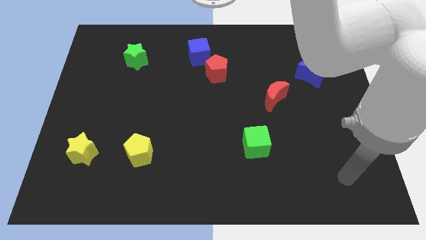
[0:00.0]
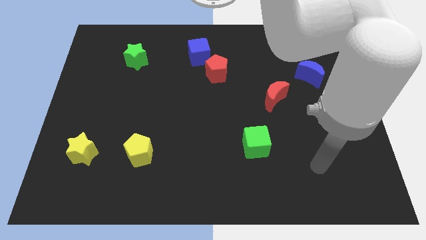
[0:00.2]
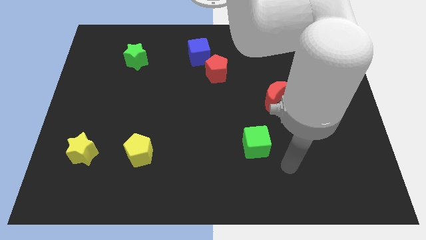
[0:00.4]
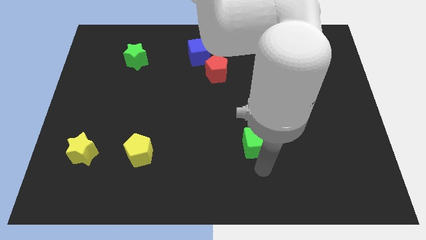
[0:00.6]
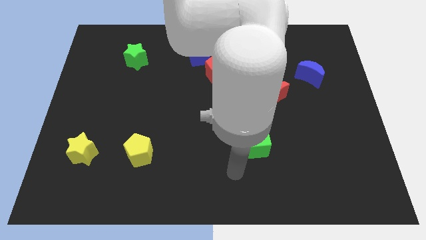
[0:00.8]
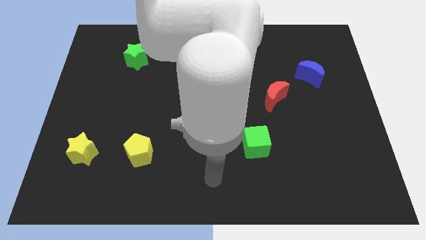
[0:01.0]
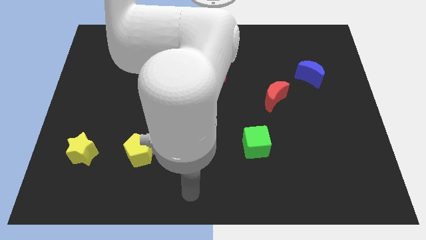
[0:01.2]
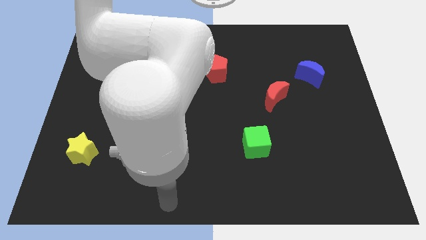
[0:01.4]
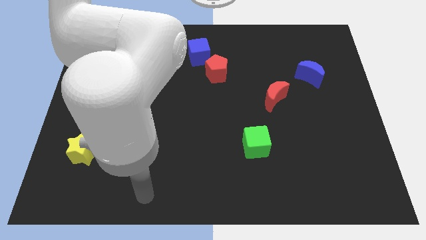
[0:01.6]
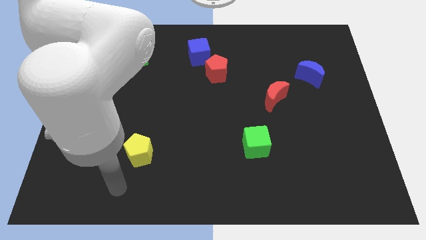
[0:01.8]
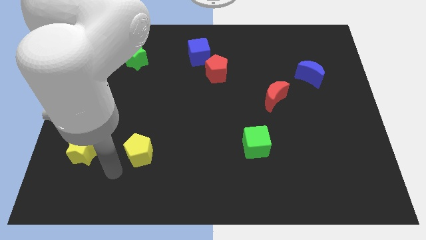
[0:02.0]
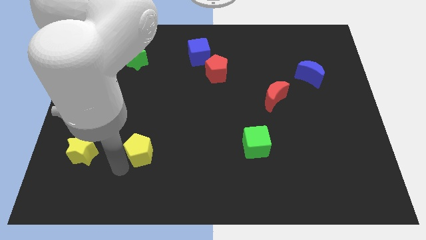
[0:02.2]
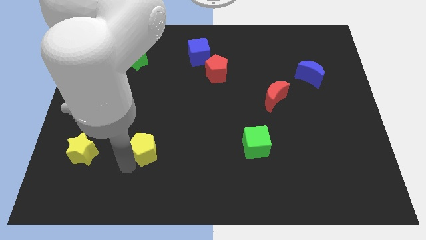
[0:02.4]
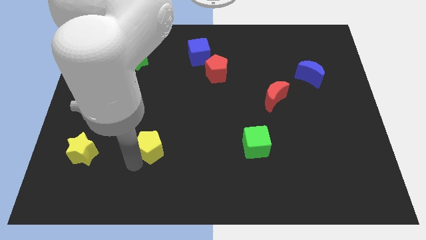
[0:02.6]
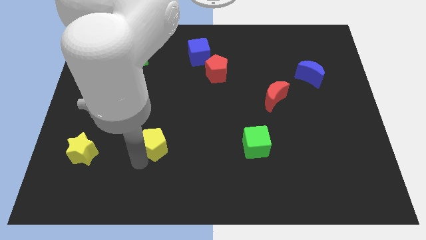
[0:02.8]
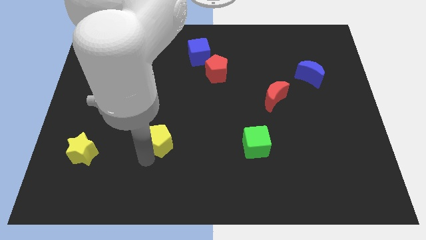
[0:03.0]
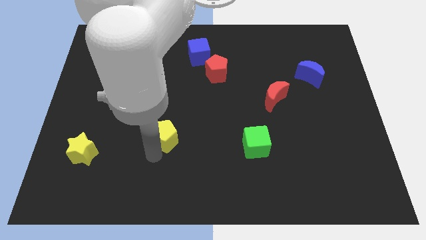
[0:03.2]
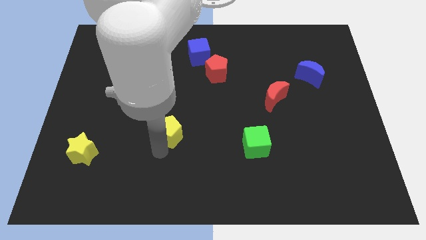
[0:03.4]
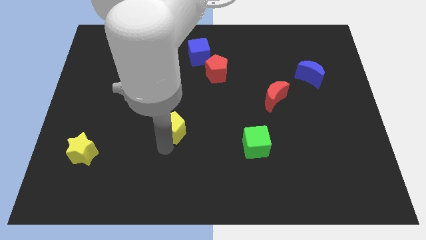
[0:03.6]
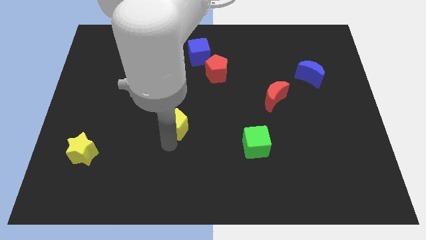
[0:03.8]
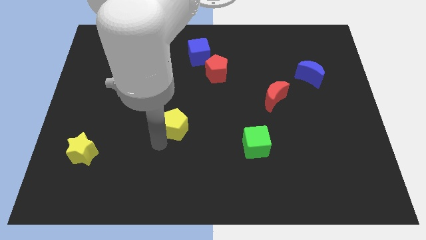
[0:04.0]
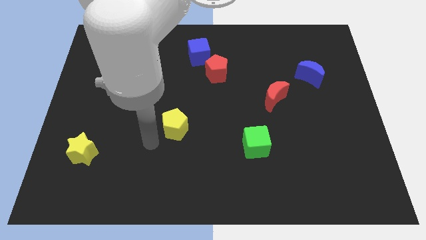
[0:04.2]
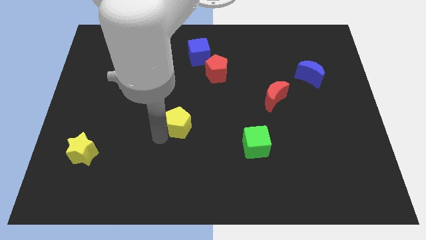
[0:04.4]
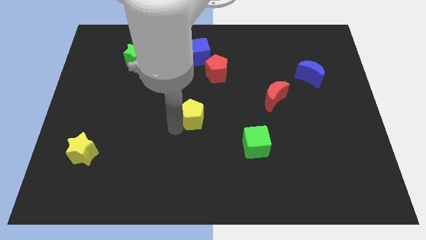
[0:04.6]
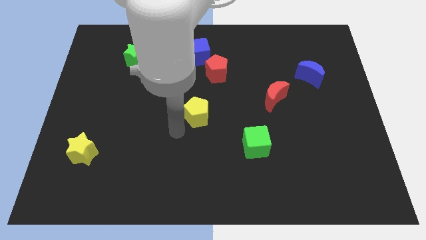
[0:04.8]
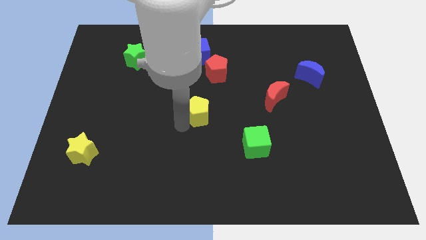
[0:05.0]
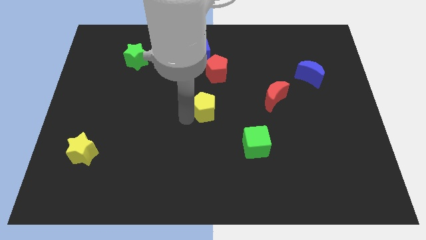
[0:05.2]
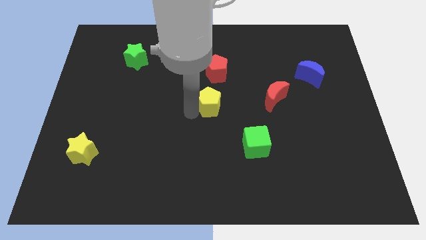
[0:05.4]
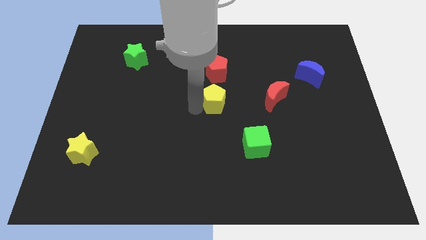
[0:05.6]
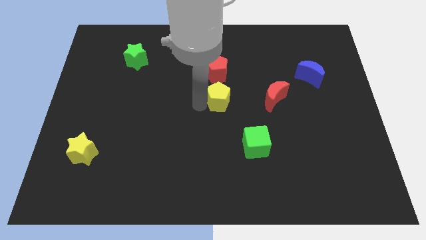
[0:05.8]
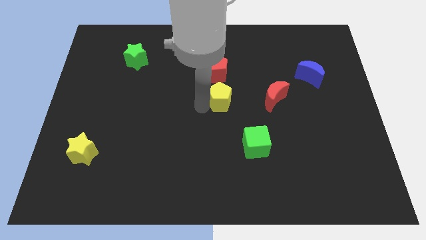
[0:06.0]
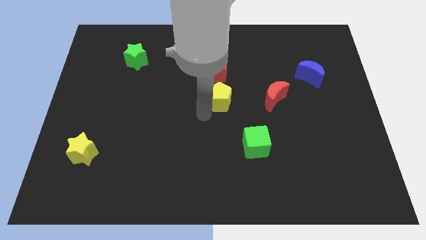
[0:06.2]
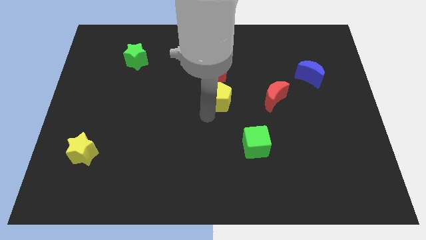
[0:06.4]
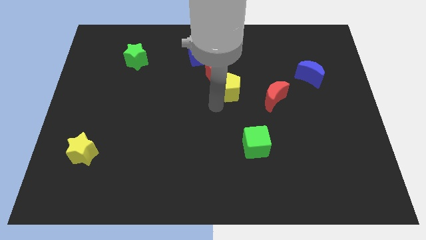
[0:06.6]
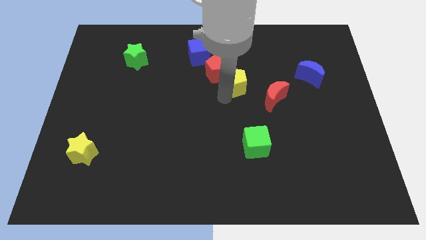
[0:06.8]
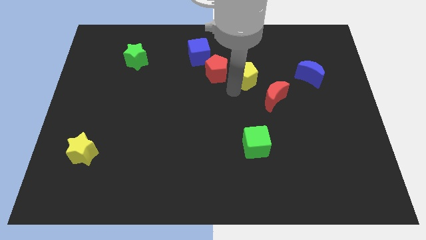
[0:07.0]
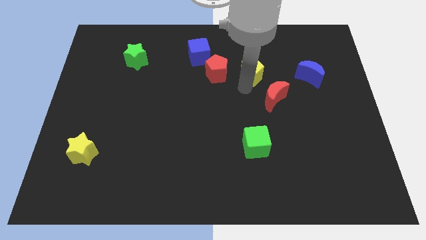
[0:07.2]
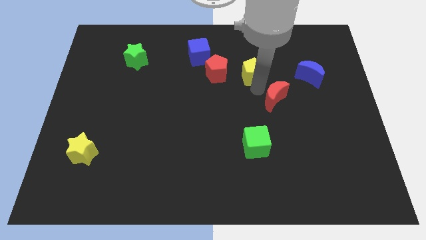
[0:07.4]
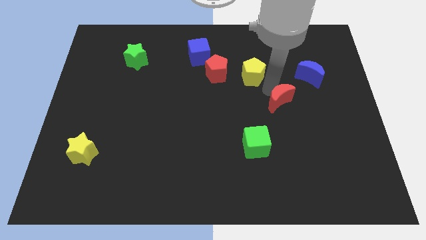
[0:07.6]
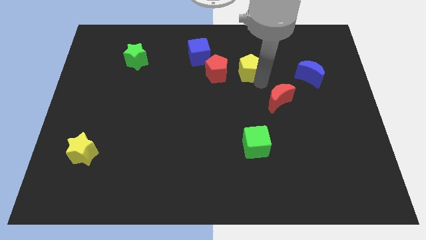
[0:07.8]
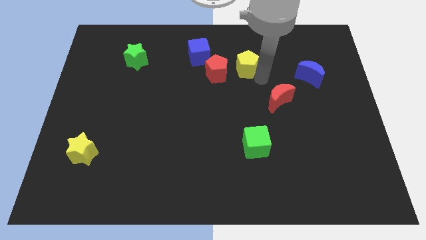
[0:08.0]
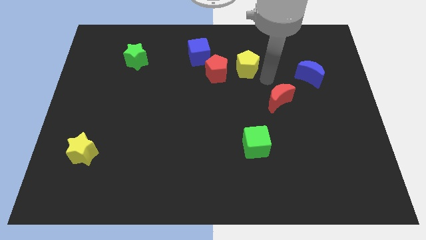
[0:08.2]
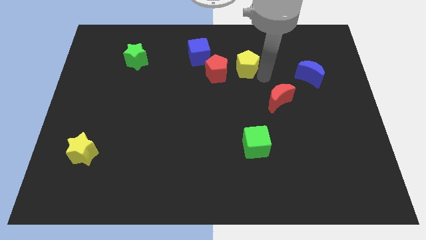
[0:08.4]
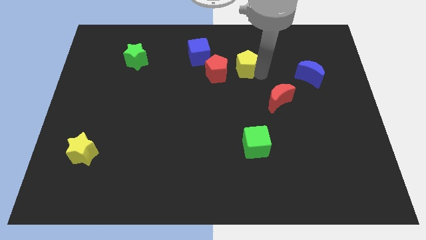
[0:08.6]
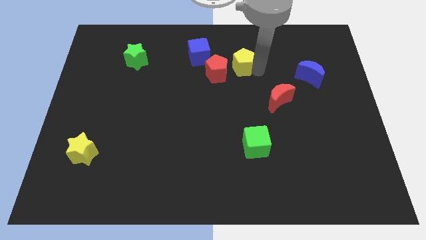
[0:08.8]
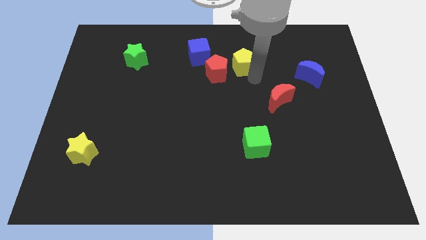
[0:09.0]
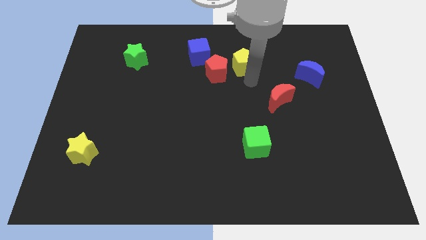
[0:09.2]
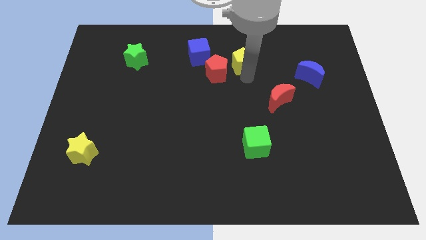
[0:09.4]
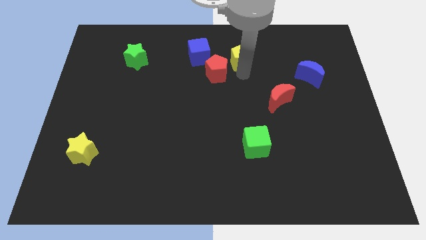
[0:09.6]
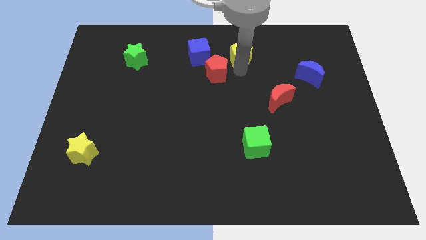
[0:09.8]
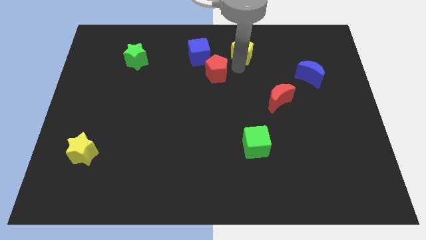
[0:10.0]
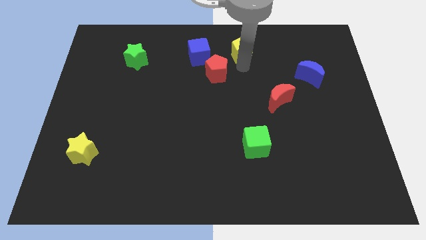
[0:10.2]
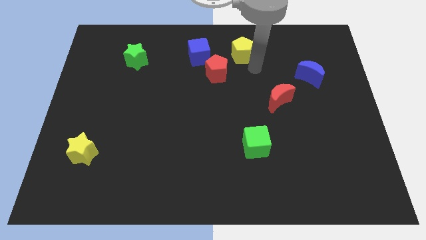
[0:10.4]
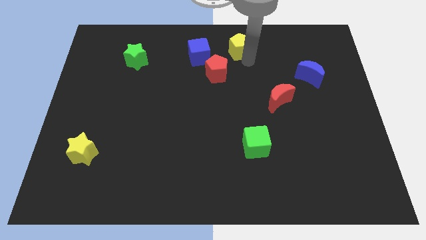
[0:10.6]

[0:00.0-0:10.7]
put the yellow pentagon to the top side

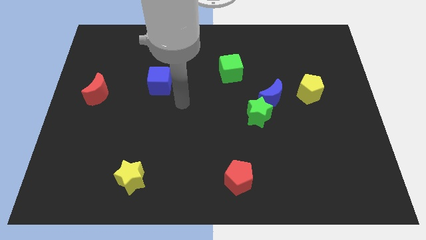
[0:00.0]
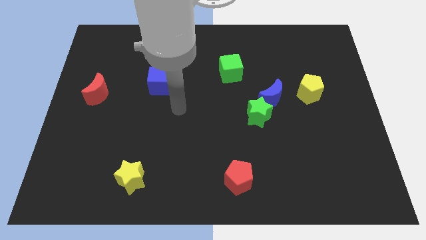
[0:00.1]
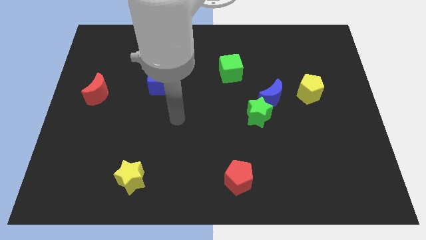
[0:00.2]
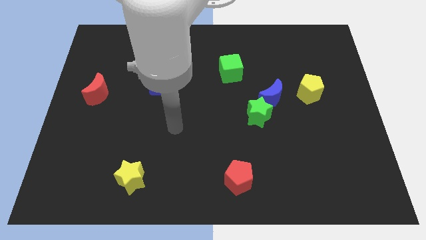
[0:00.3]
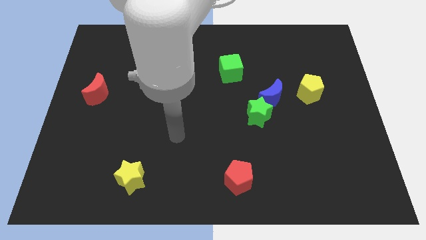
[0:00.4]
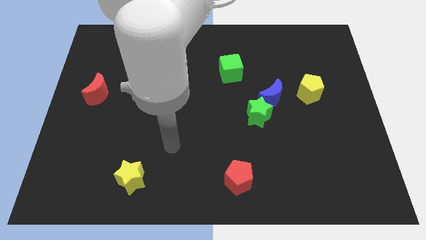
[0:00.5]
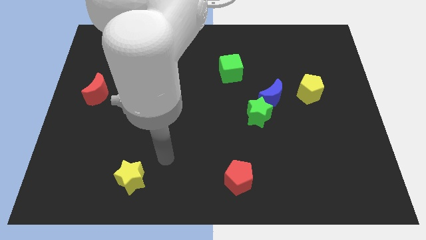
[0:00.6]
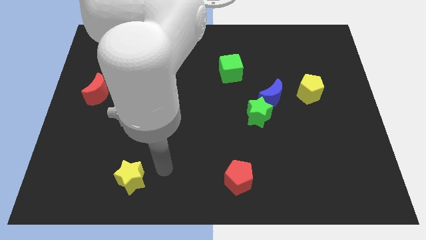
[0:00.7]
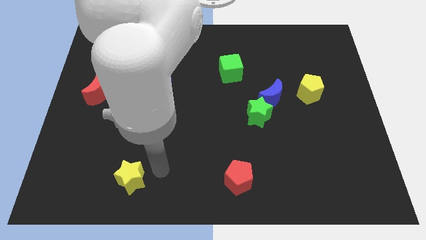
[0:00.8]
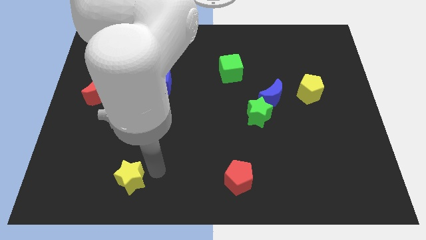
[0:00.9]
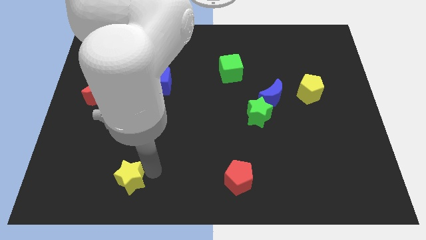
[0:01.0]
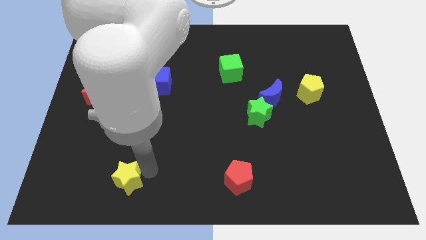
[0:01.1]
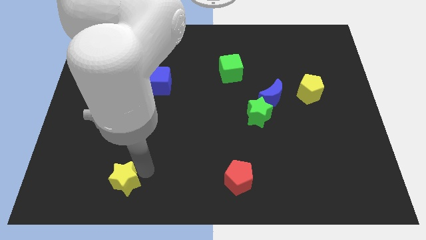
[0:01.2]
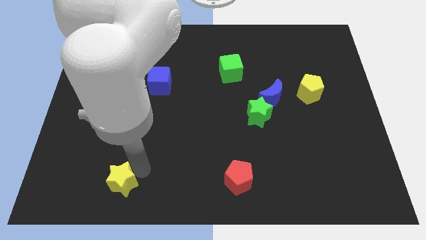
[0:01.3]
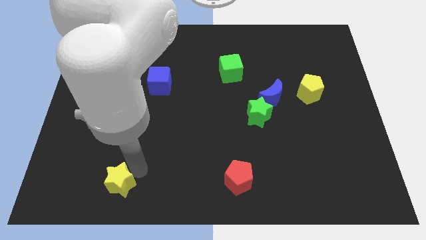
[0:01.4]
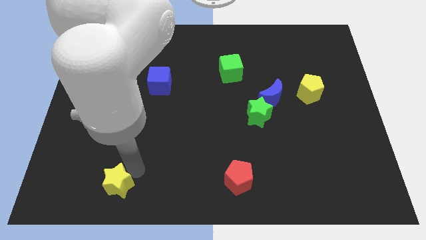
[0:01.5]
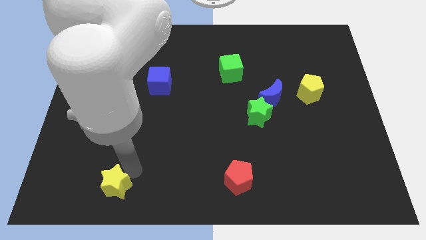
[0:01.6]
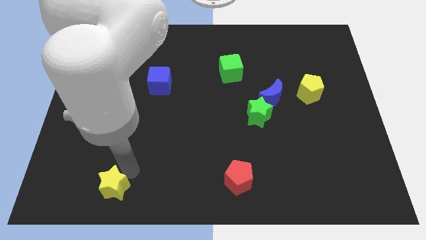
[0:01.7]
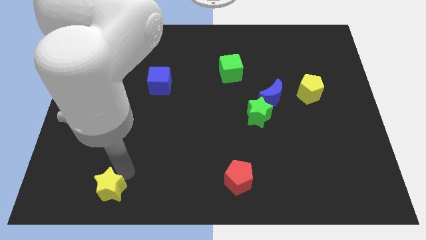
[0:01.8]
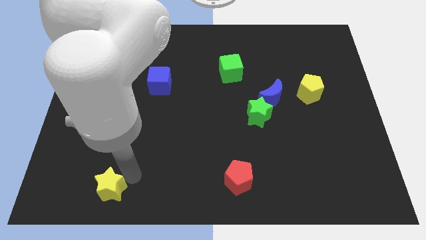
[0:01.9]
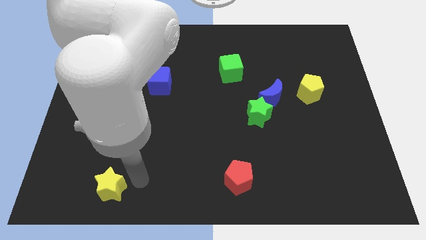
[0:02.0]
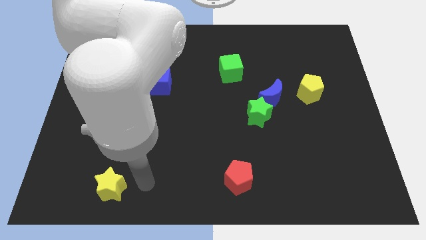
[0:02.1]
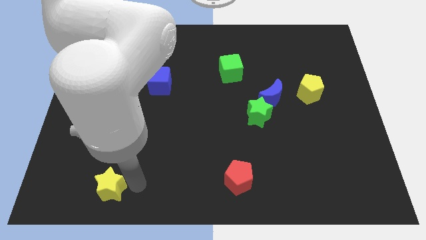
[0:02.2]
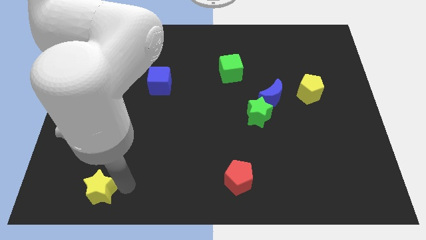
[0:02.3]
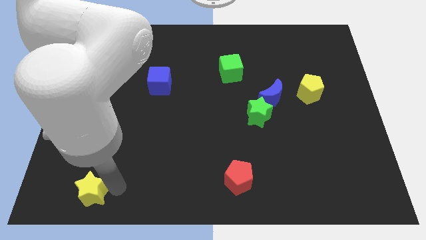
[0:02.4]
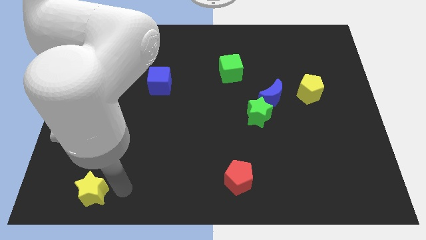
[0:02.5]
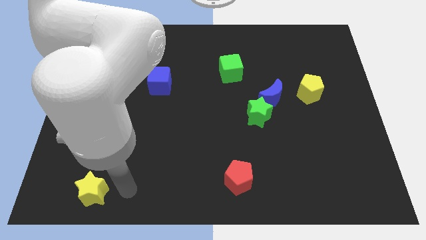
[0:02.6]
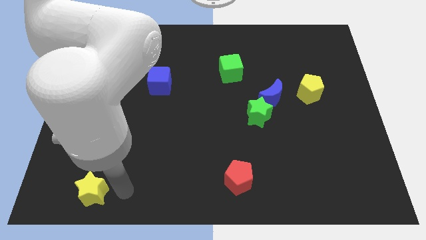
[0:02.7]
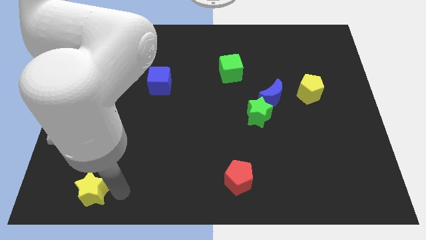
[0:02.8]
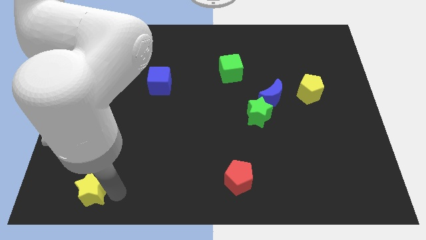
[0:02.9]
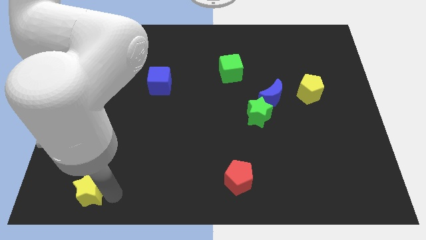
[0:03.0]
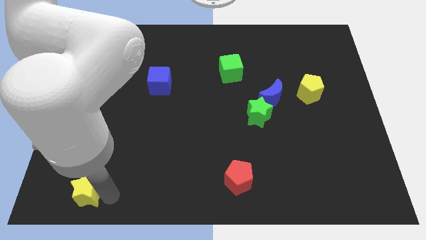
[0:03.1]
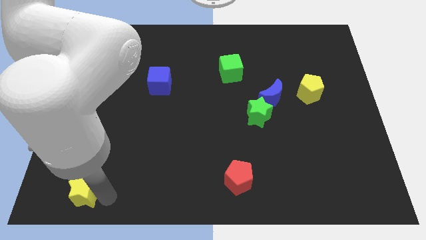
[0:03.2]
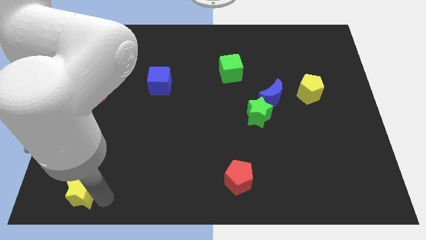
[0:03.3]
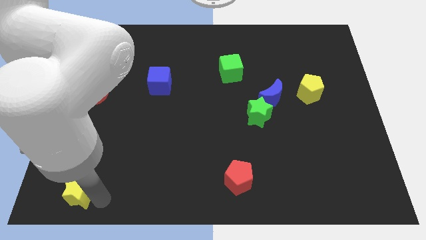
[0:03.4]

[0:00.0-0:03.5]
put the yellow star to the lower left corner
